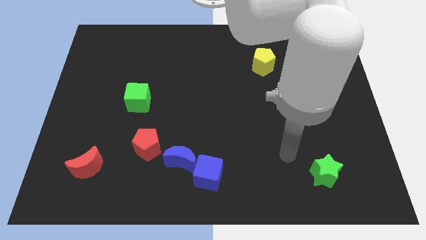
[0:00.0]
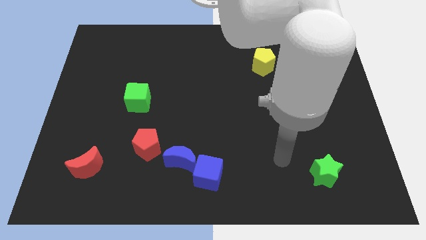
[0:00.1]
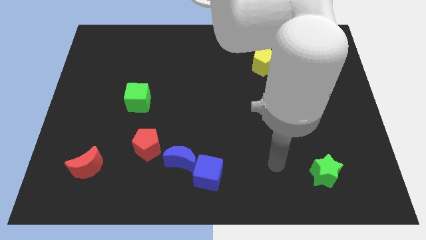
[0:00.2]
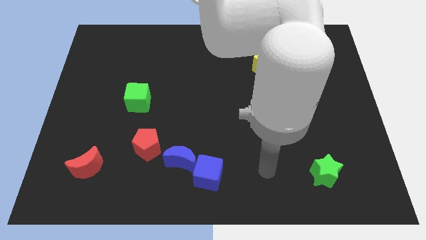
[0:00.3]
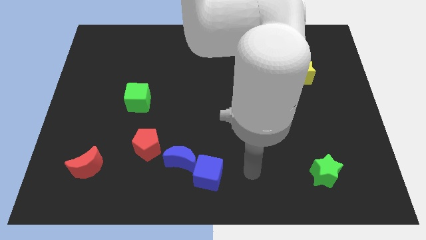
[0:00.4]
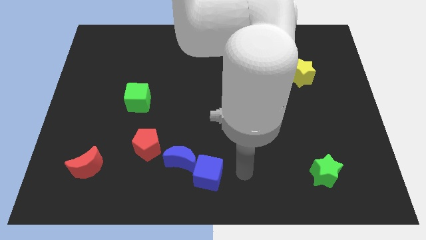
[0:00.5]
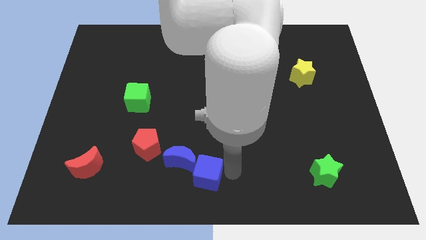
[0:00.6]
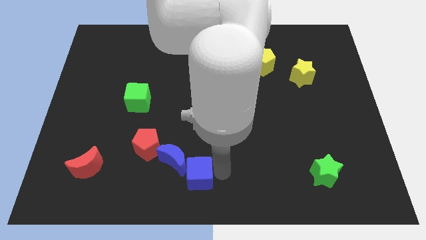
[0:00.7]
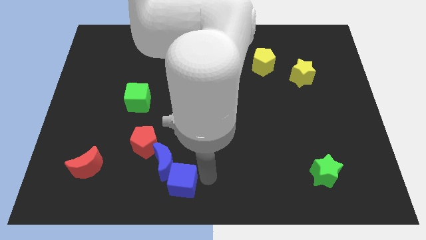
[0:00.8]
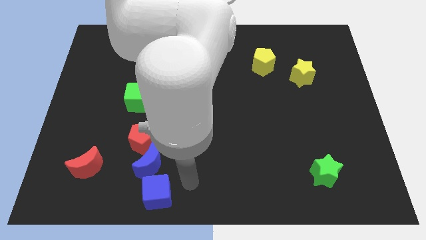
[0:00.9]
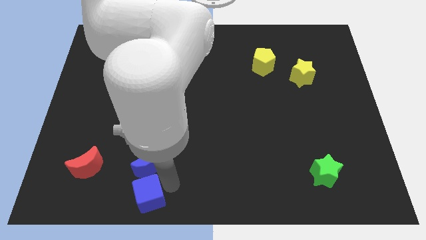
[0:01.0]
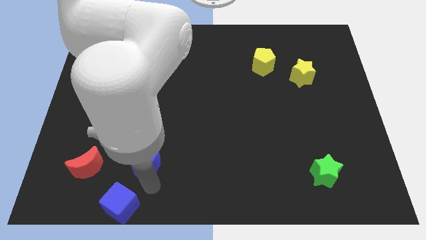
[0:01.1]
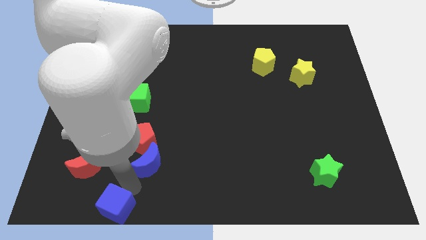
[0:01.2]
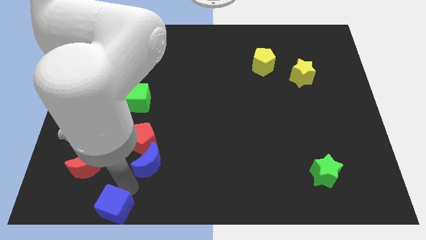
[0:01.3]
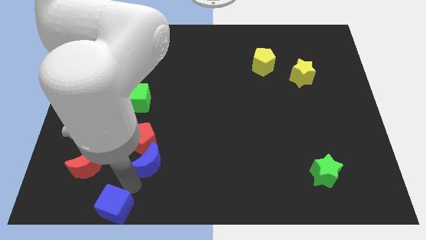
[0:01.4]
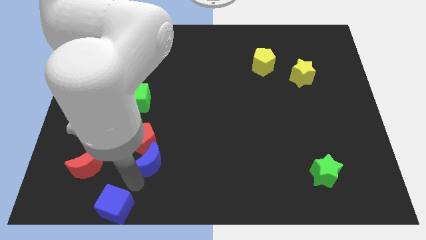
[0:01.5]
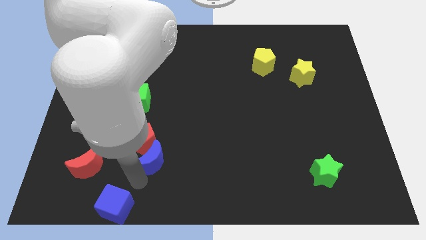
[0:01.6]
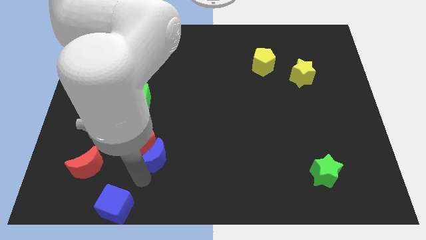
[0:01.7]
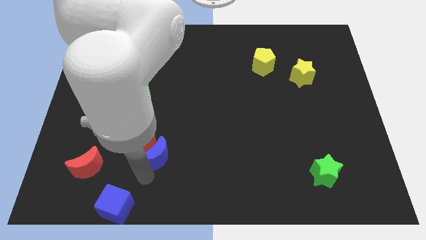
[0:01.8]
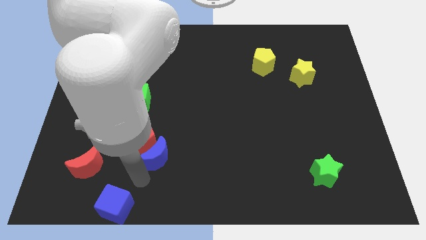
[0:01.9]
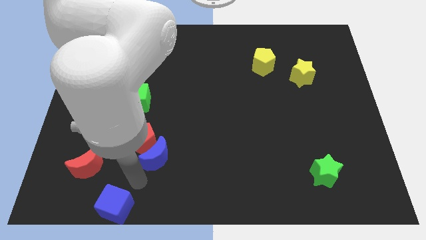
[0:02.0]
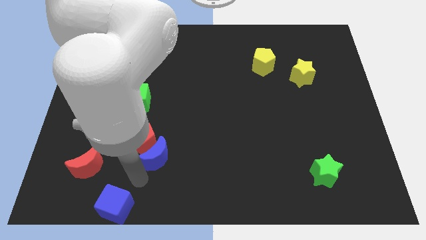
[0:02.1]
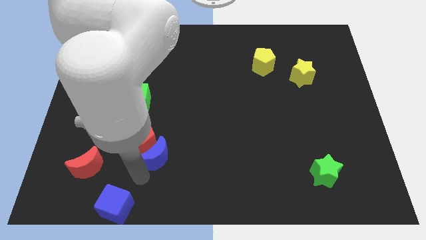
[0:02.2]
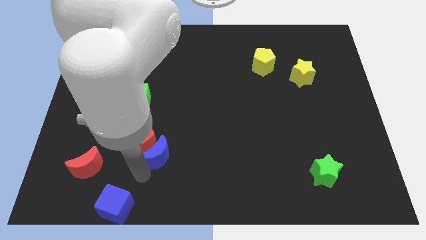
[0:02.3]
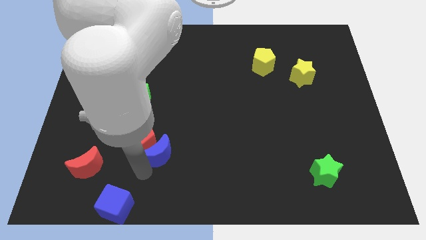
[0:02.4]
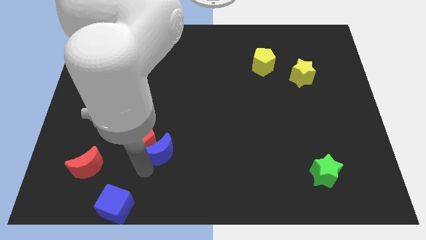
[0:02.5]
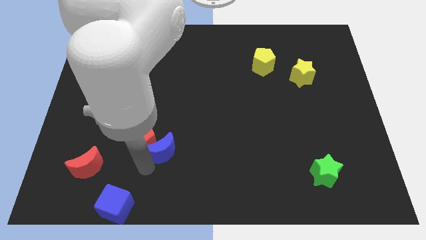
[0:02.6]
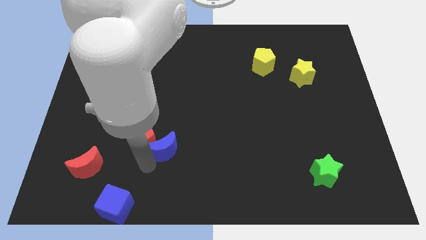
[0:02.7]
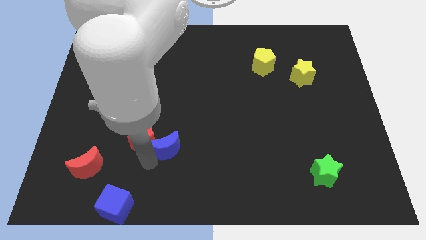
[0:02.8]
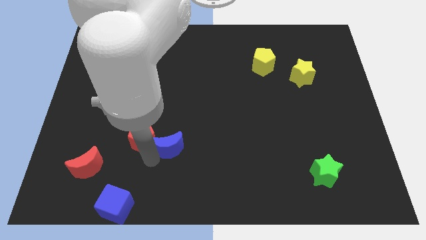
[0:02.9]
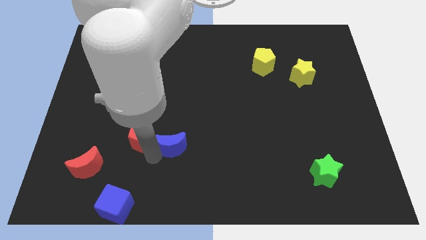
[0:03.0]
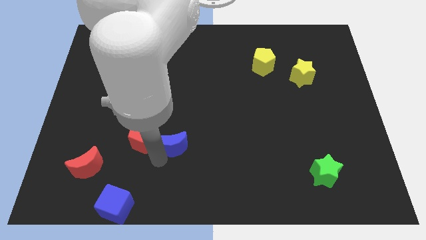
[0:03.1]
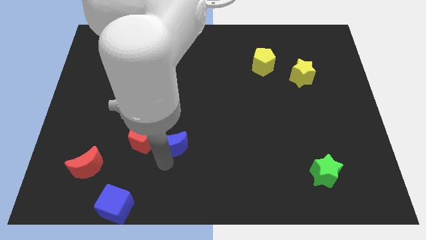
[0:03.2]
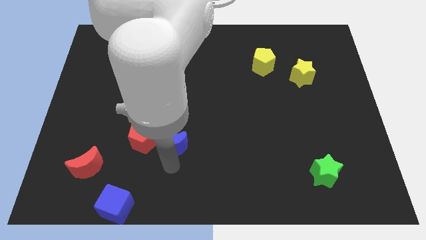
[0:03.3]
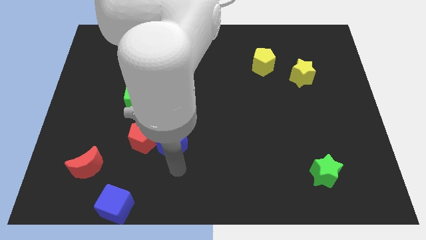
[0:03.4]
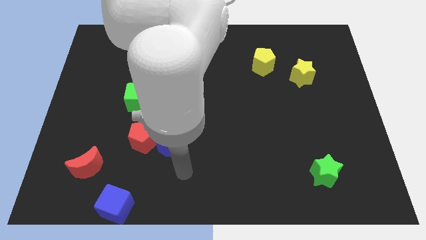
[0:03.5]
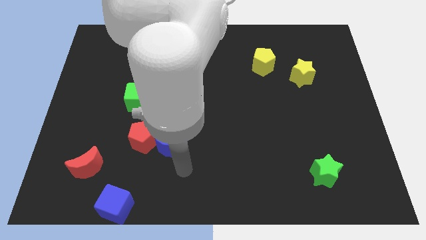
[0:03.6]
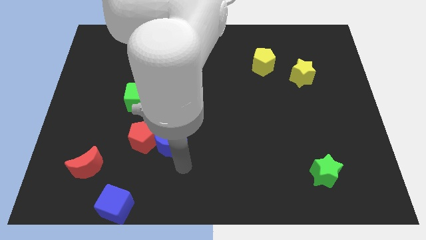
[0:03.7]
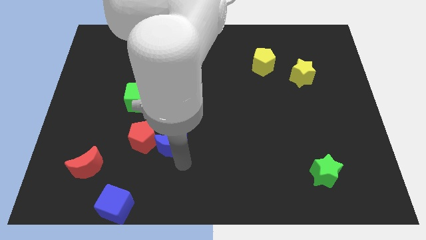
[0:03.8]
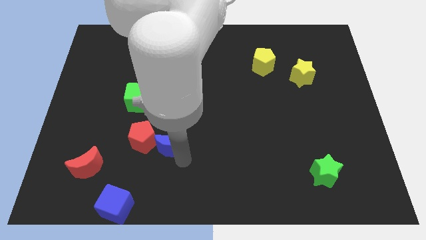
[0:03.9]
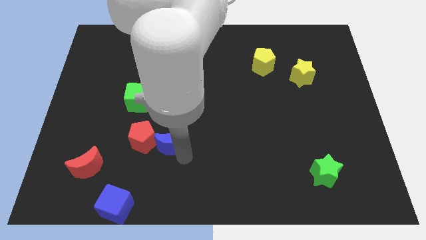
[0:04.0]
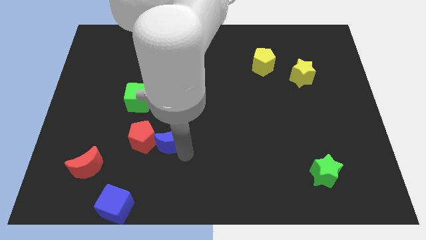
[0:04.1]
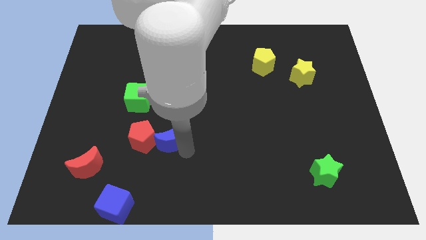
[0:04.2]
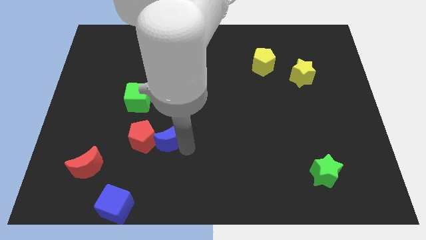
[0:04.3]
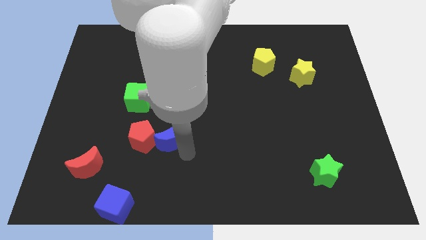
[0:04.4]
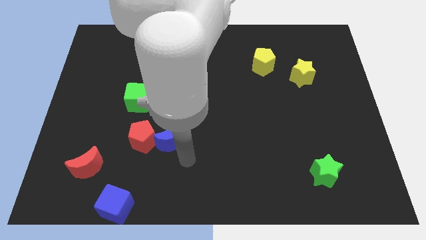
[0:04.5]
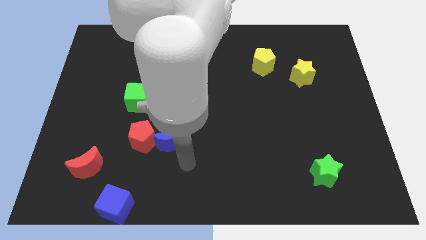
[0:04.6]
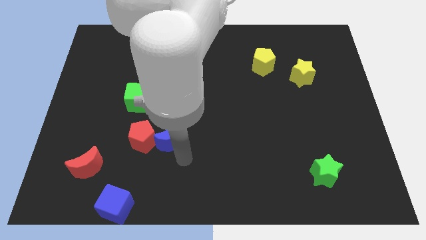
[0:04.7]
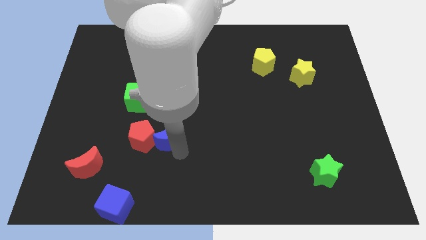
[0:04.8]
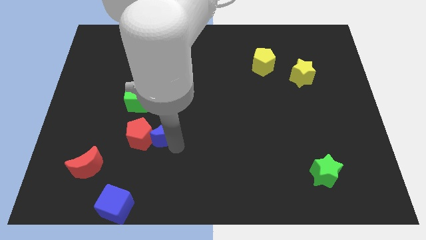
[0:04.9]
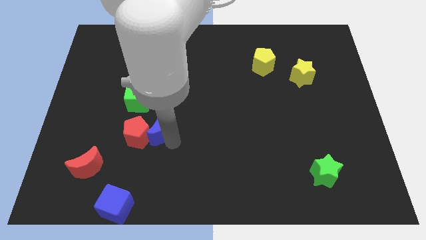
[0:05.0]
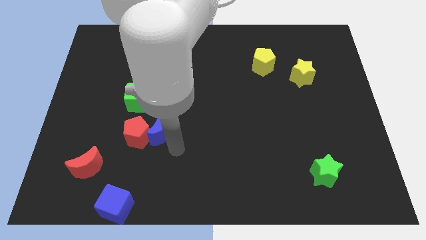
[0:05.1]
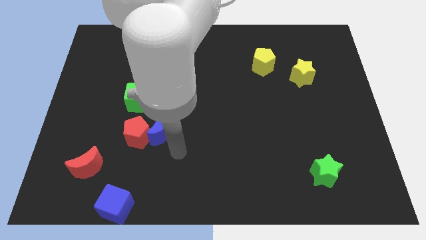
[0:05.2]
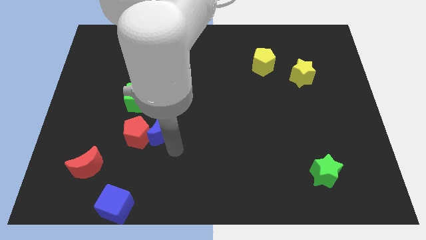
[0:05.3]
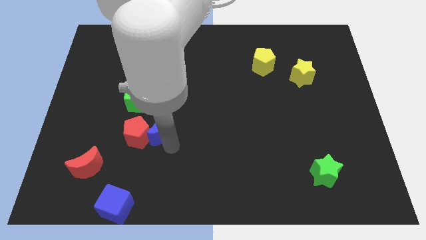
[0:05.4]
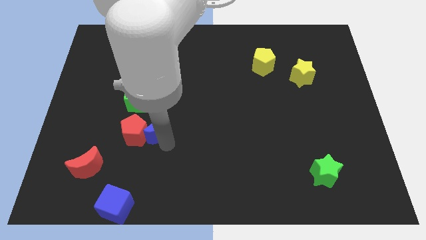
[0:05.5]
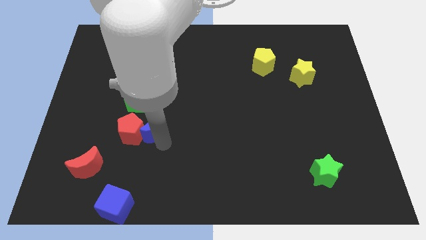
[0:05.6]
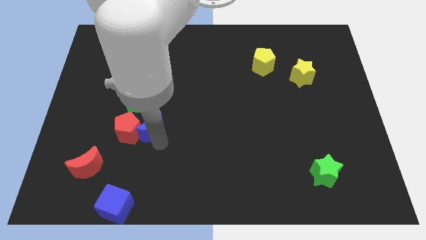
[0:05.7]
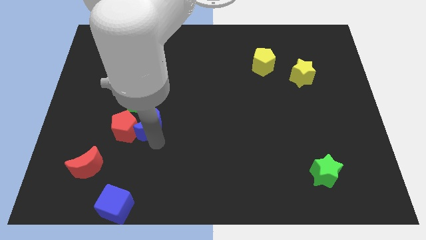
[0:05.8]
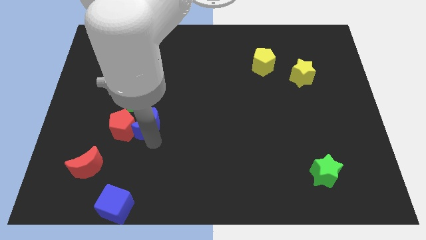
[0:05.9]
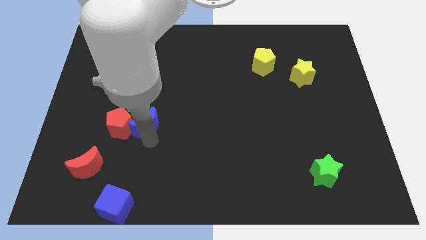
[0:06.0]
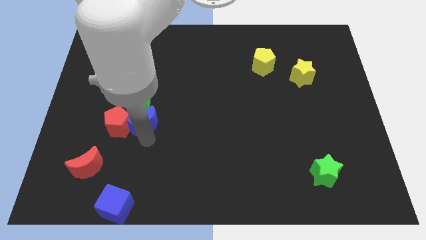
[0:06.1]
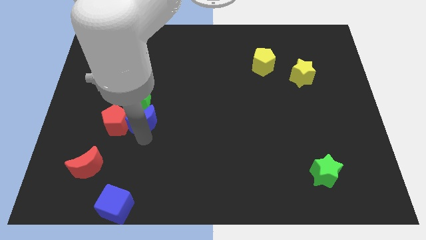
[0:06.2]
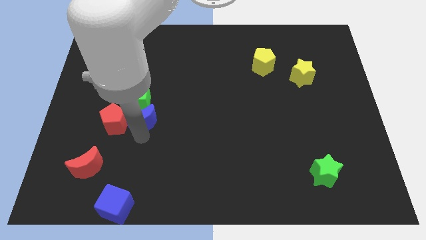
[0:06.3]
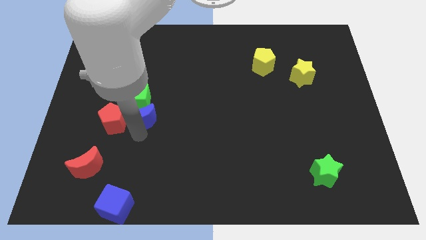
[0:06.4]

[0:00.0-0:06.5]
put the blue moon towards the green cube

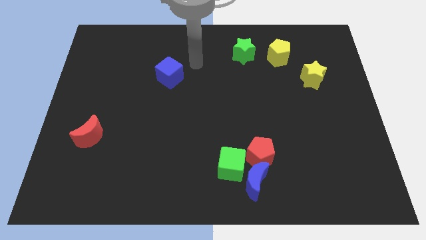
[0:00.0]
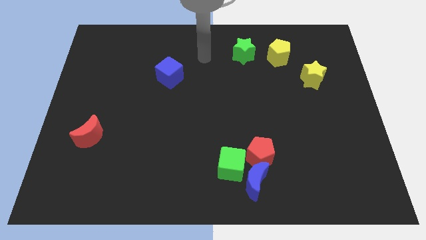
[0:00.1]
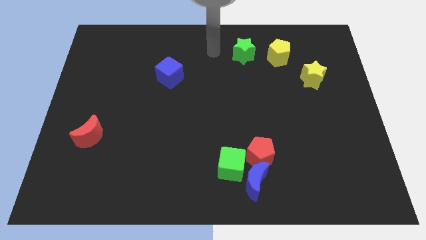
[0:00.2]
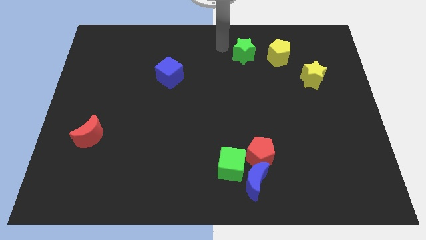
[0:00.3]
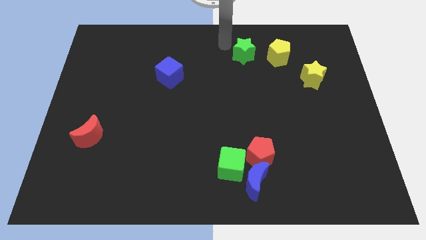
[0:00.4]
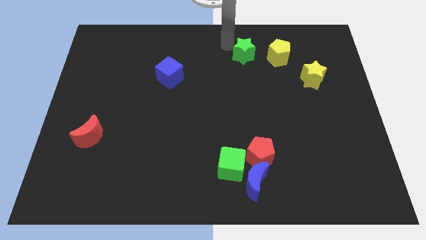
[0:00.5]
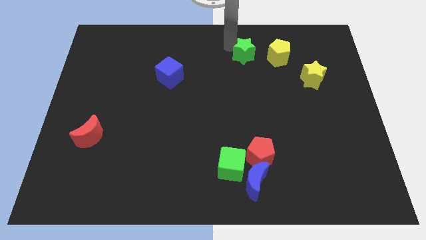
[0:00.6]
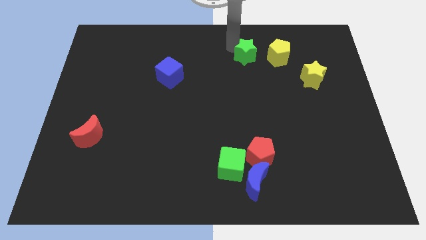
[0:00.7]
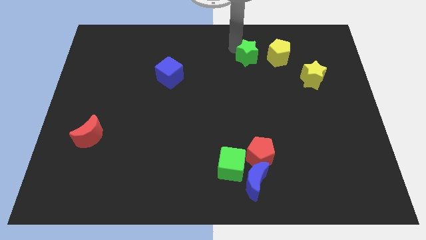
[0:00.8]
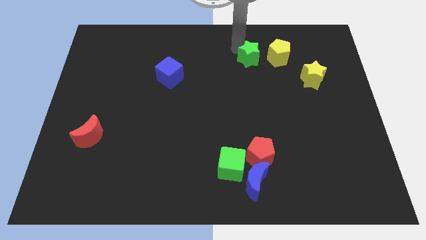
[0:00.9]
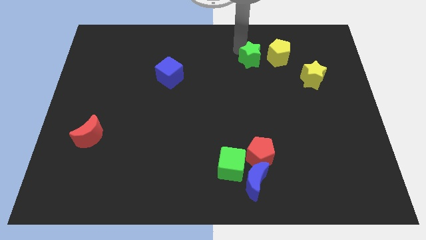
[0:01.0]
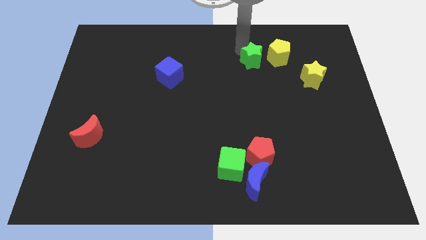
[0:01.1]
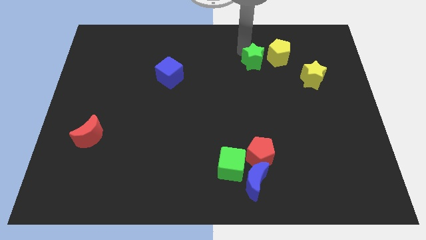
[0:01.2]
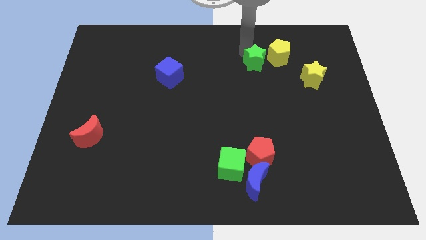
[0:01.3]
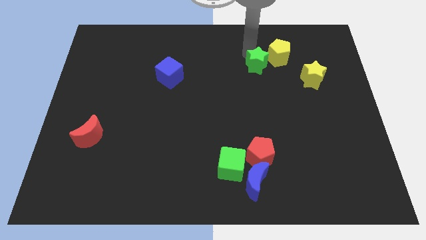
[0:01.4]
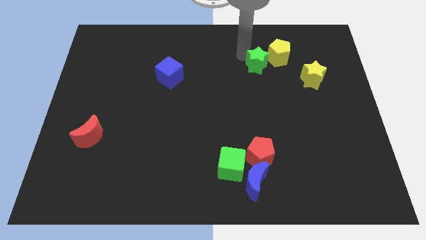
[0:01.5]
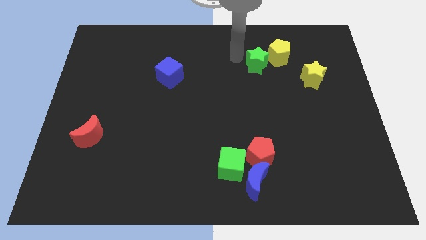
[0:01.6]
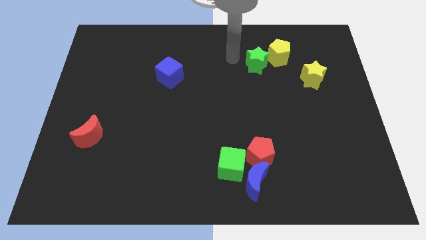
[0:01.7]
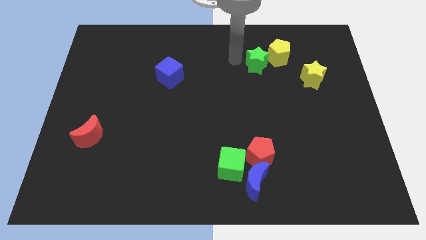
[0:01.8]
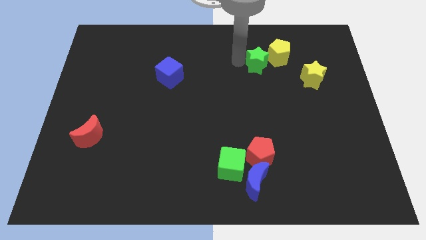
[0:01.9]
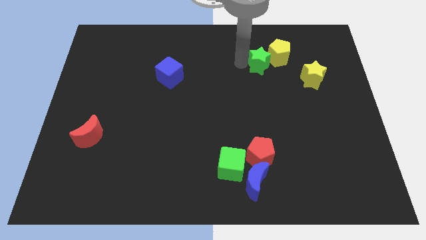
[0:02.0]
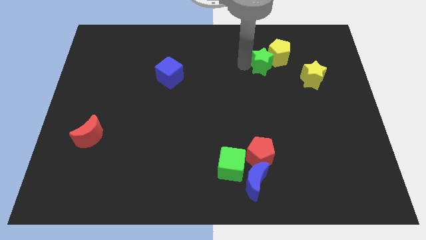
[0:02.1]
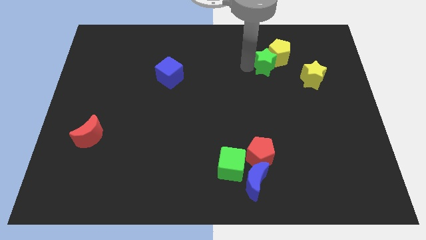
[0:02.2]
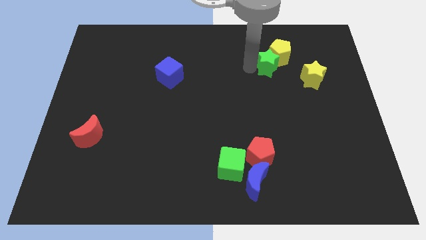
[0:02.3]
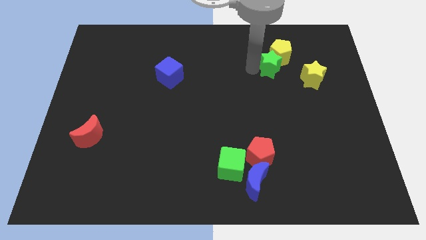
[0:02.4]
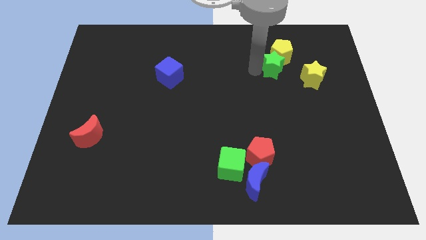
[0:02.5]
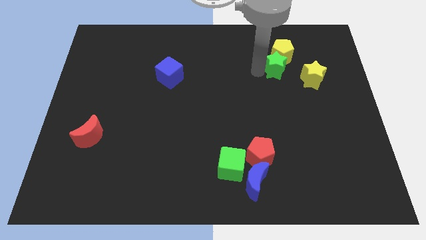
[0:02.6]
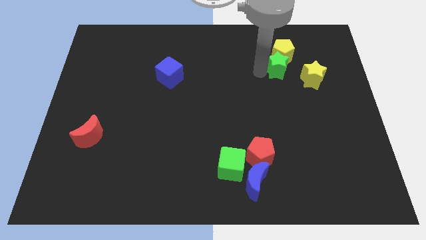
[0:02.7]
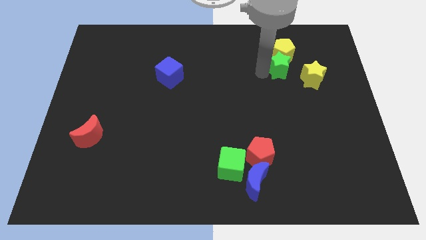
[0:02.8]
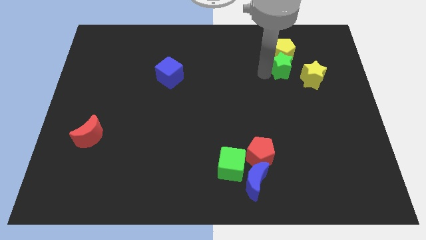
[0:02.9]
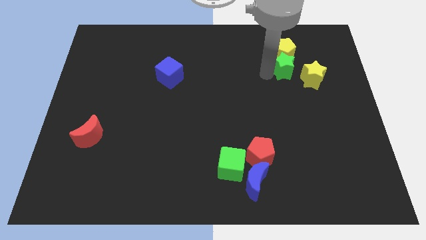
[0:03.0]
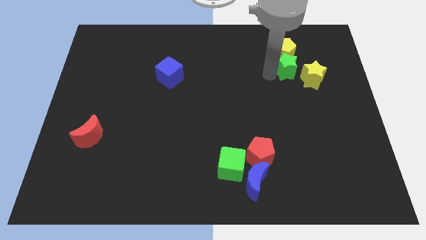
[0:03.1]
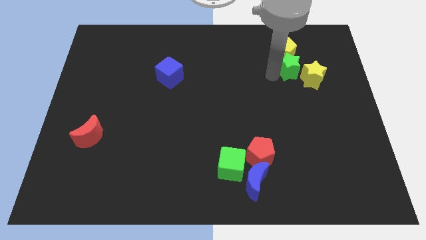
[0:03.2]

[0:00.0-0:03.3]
put the green star towards the yellow star
